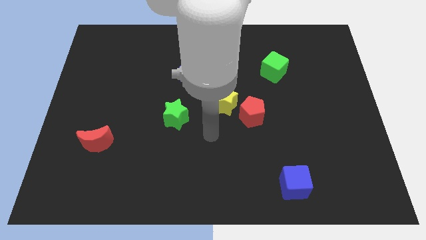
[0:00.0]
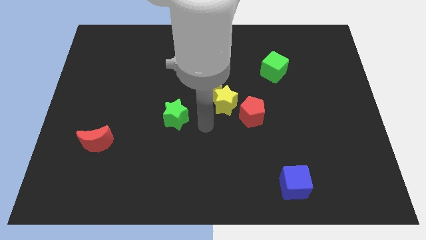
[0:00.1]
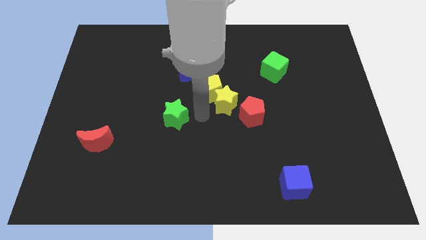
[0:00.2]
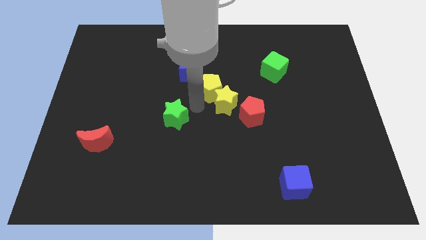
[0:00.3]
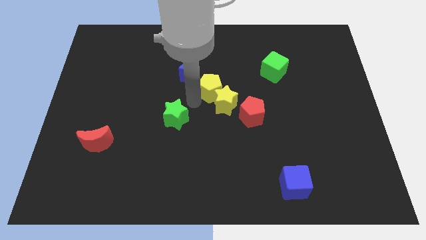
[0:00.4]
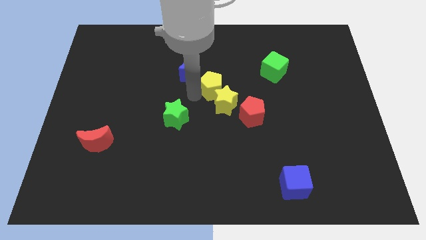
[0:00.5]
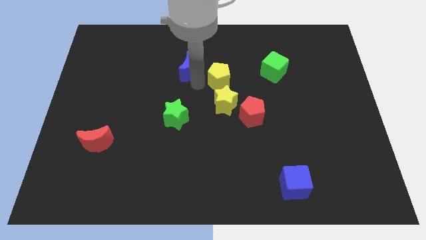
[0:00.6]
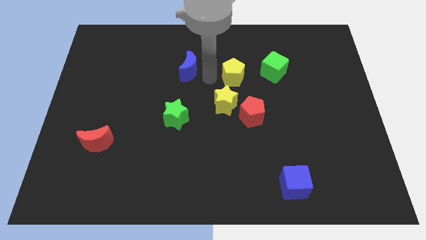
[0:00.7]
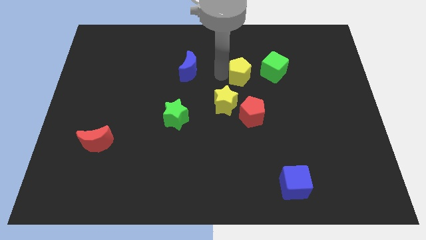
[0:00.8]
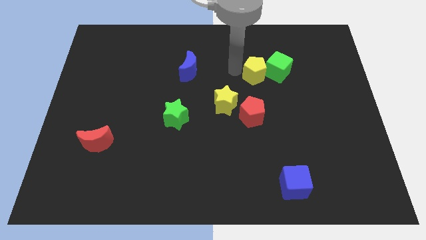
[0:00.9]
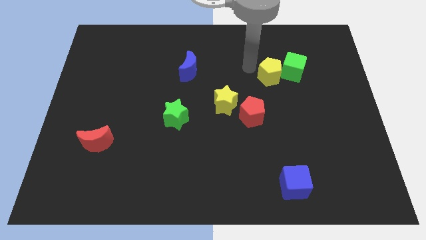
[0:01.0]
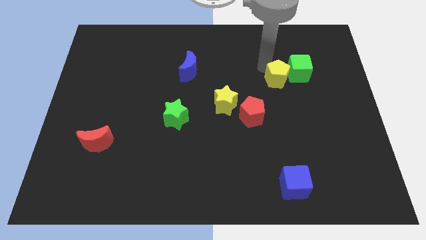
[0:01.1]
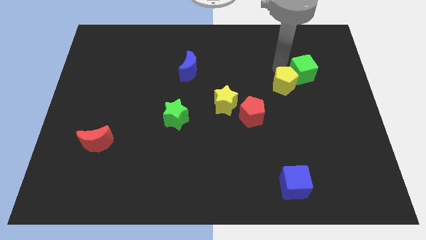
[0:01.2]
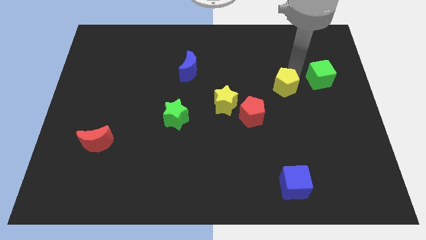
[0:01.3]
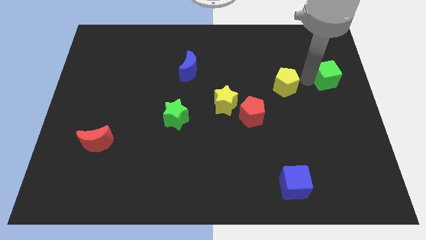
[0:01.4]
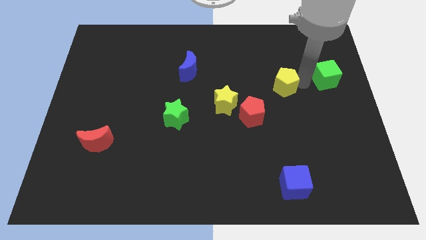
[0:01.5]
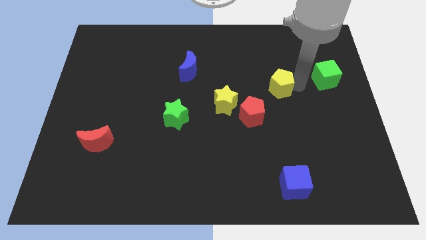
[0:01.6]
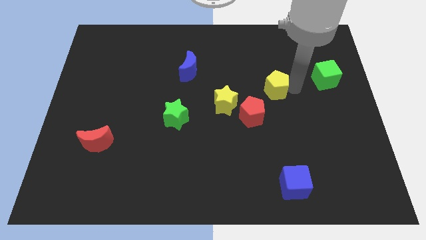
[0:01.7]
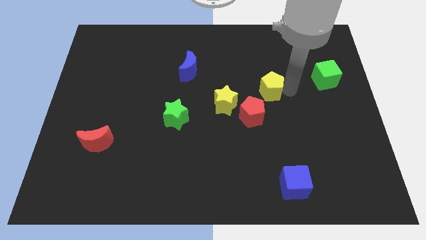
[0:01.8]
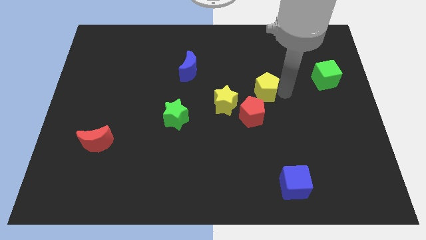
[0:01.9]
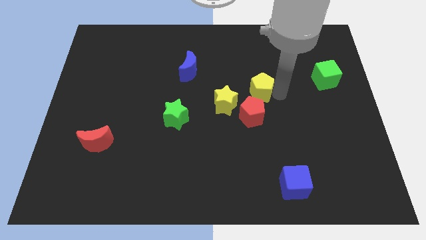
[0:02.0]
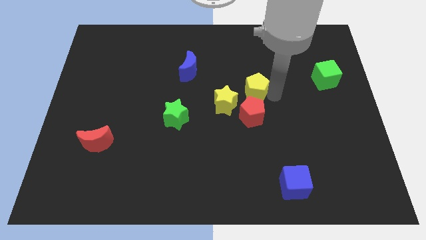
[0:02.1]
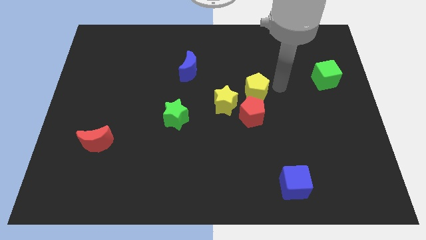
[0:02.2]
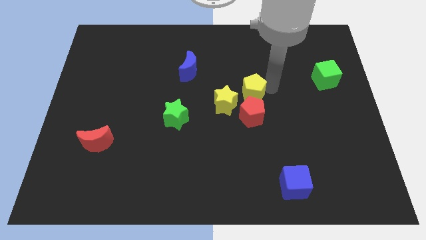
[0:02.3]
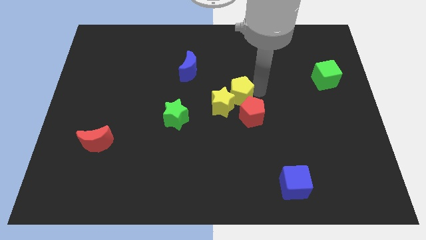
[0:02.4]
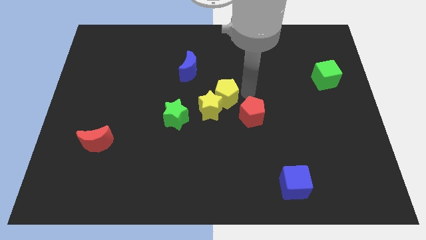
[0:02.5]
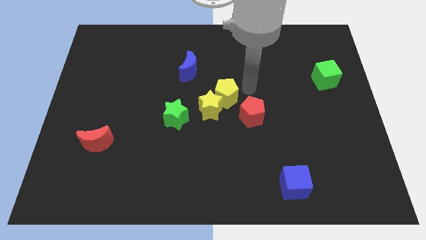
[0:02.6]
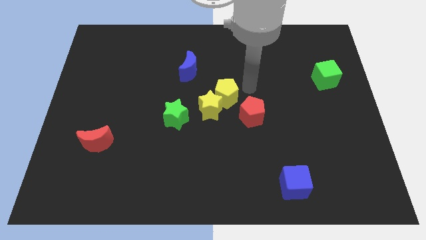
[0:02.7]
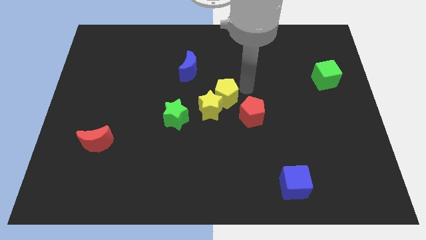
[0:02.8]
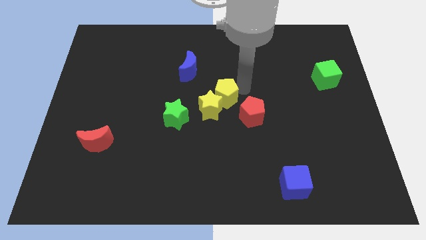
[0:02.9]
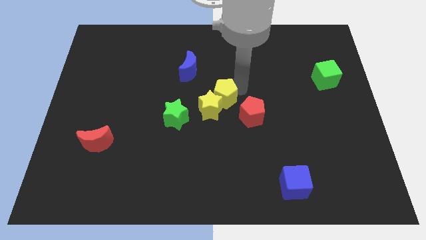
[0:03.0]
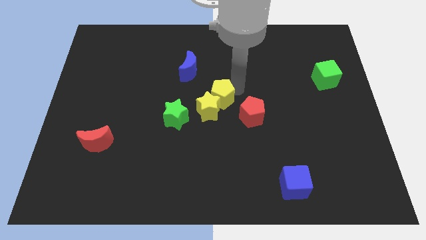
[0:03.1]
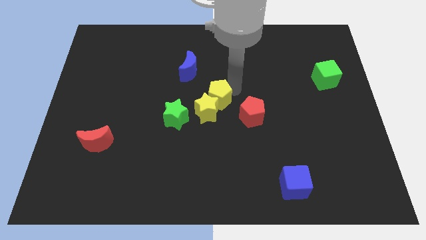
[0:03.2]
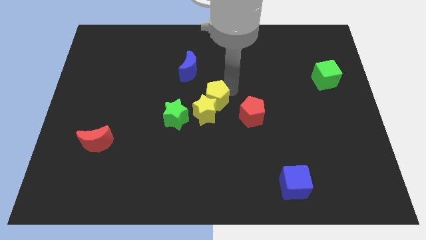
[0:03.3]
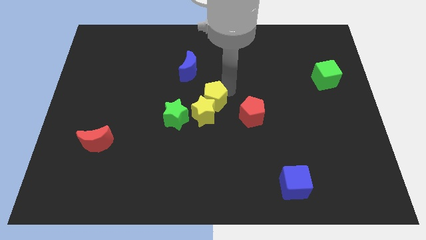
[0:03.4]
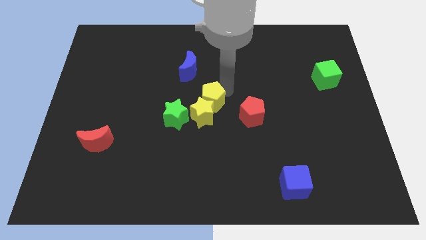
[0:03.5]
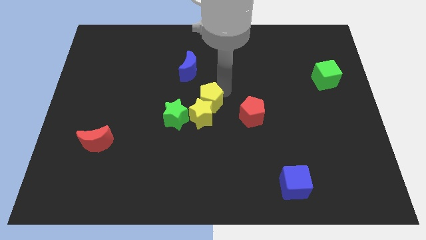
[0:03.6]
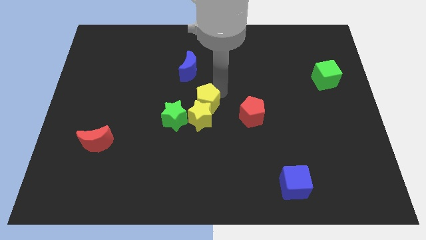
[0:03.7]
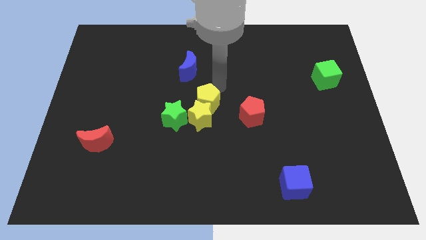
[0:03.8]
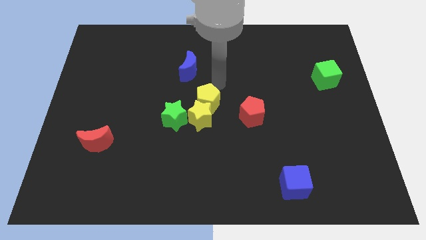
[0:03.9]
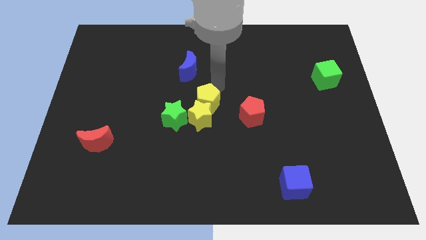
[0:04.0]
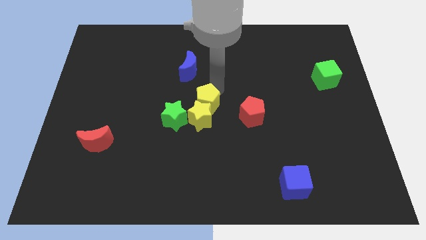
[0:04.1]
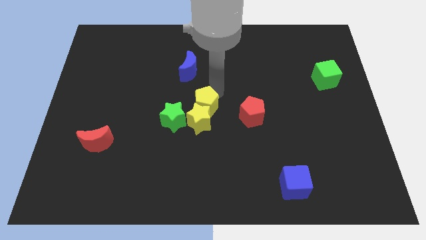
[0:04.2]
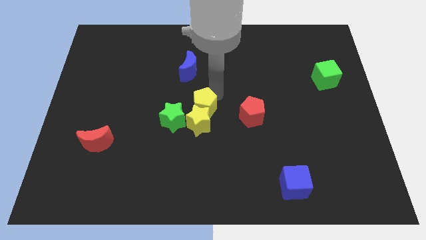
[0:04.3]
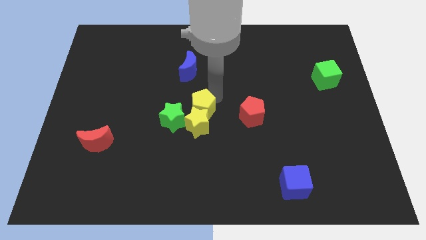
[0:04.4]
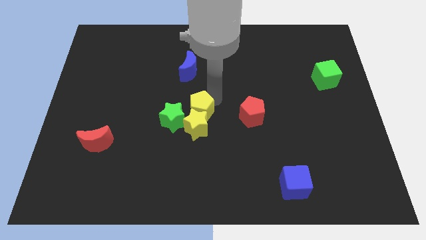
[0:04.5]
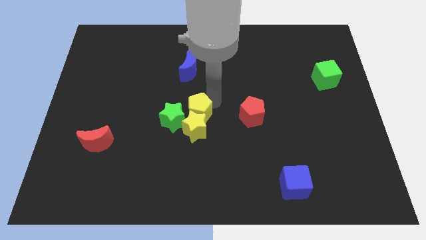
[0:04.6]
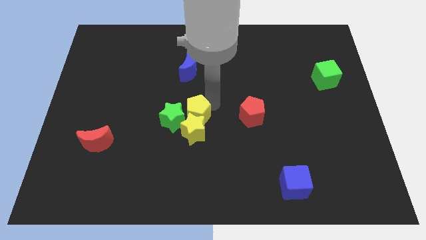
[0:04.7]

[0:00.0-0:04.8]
move the yellow pentagon slightly downwards and left

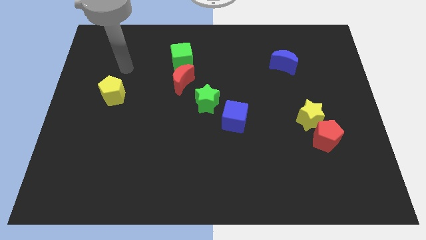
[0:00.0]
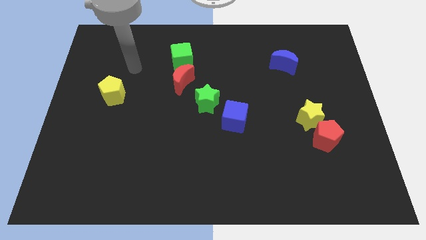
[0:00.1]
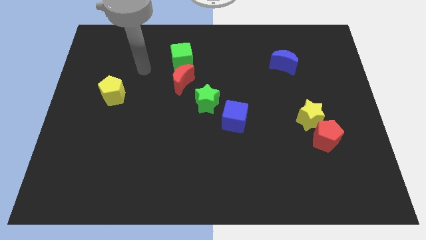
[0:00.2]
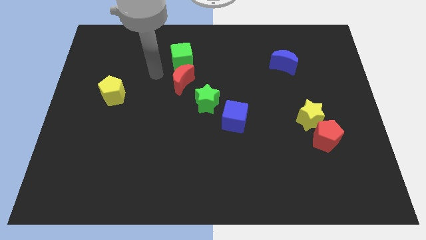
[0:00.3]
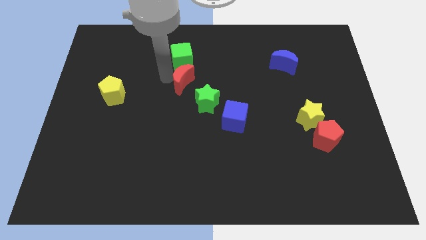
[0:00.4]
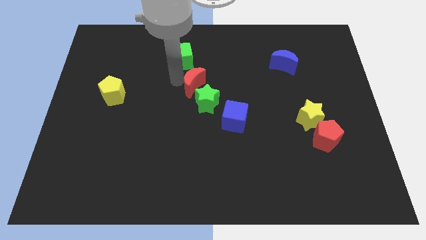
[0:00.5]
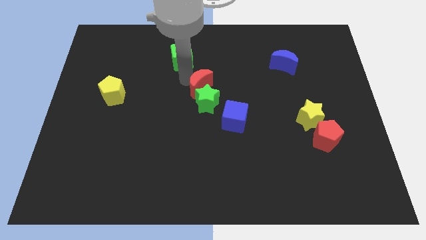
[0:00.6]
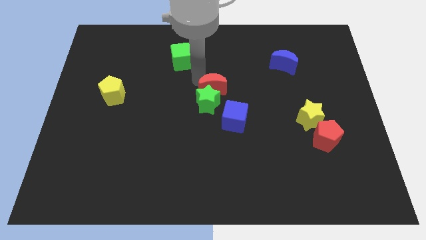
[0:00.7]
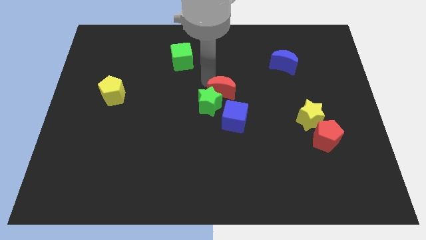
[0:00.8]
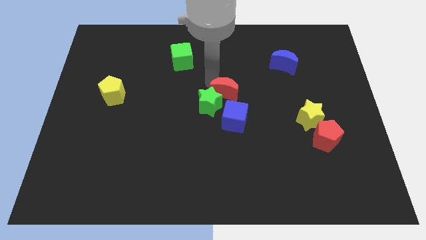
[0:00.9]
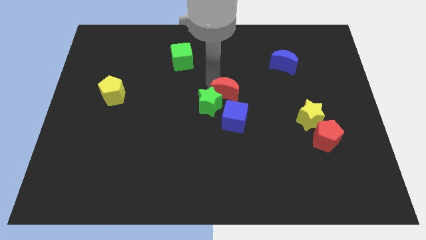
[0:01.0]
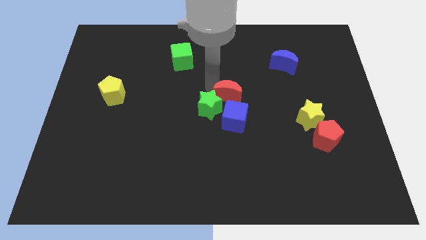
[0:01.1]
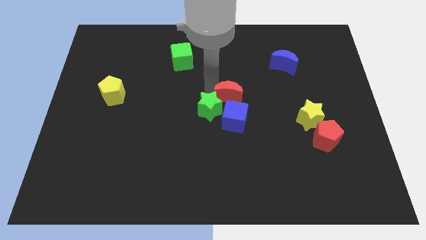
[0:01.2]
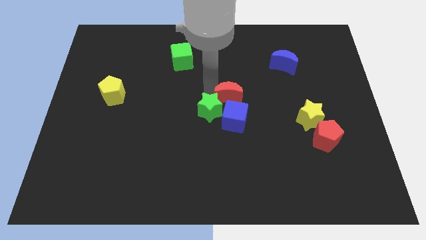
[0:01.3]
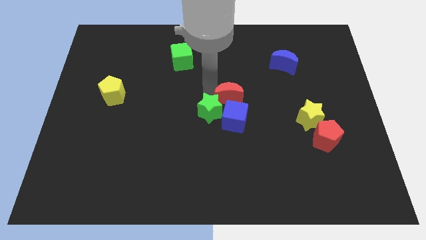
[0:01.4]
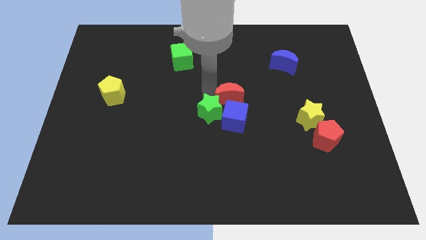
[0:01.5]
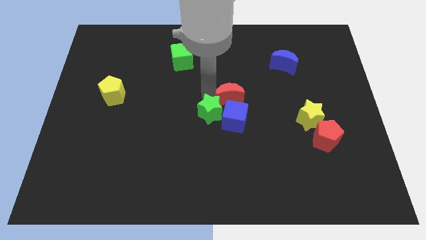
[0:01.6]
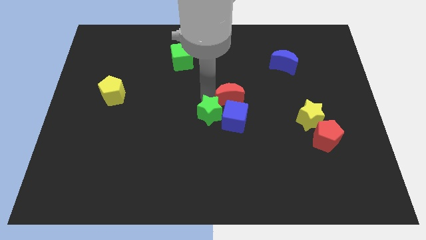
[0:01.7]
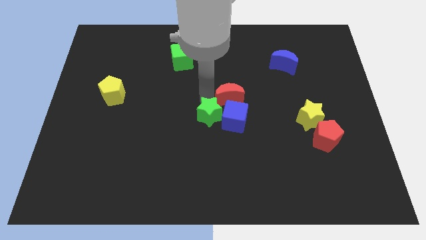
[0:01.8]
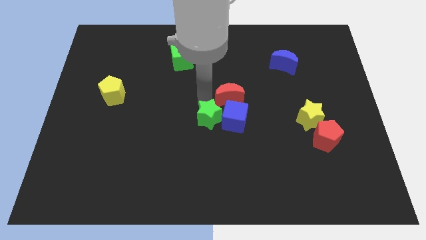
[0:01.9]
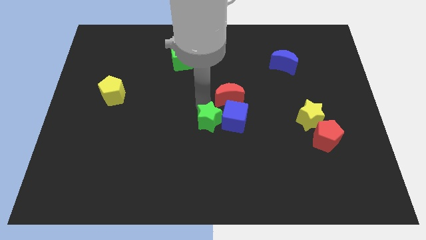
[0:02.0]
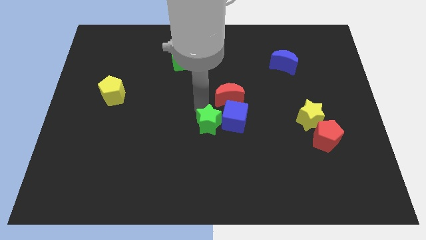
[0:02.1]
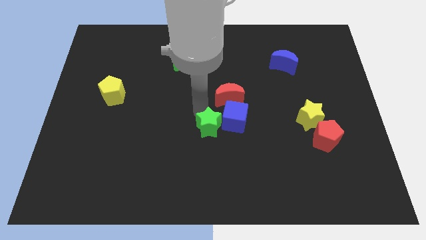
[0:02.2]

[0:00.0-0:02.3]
slide the green star a little downwards

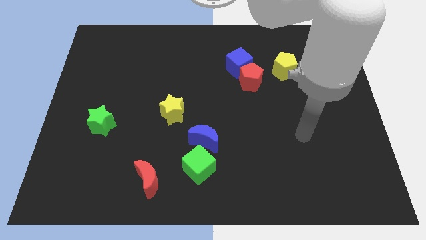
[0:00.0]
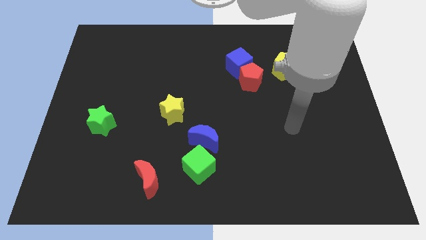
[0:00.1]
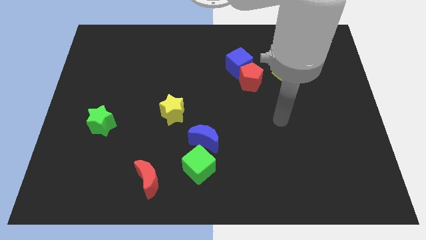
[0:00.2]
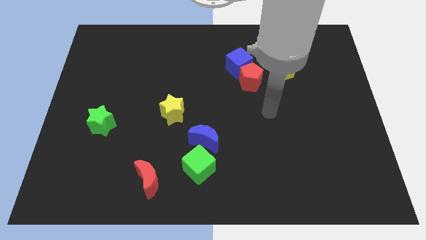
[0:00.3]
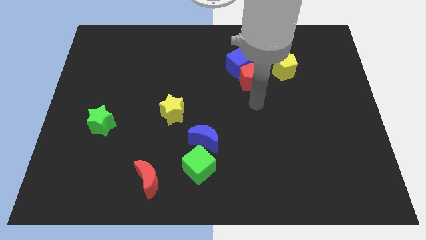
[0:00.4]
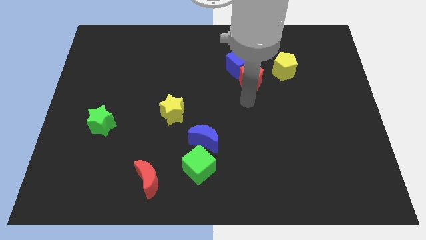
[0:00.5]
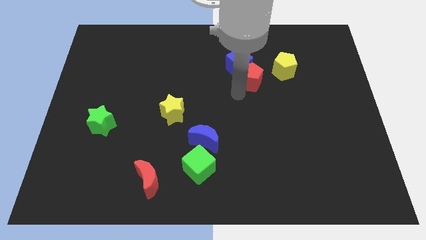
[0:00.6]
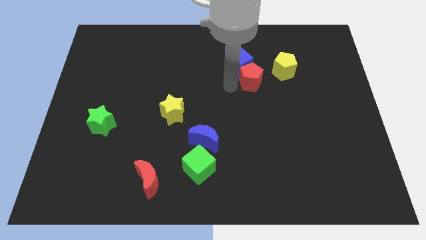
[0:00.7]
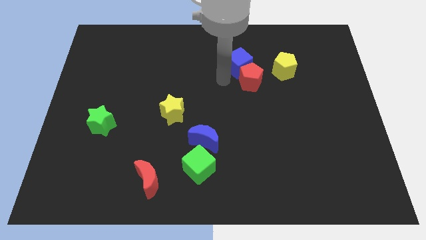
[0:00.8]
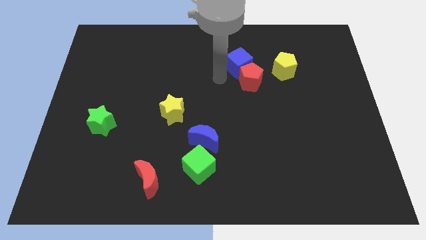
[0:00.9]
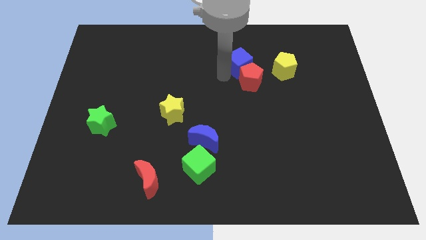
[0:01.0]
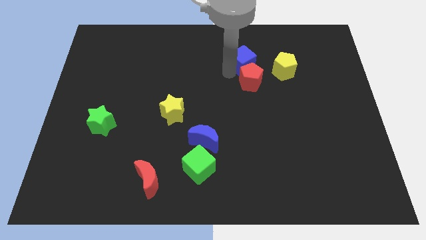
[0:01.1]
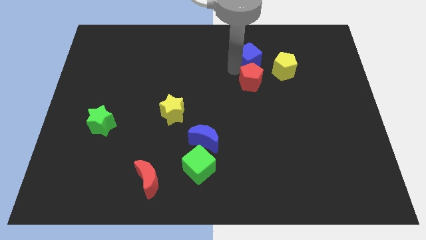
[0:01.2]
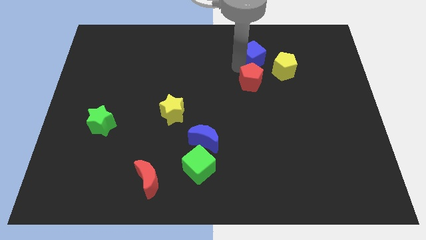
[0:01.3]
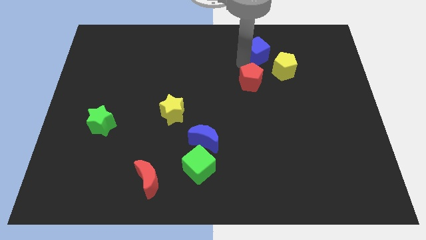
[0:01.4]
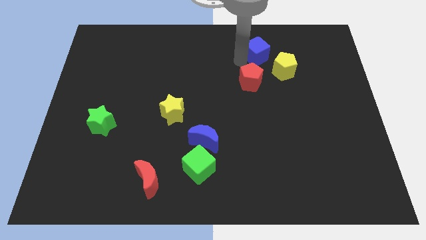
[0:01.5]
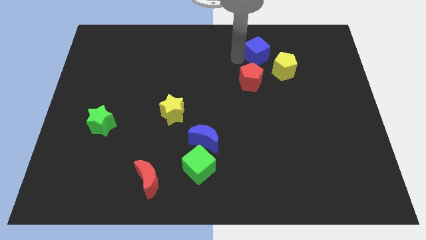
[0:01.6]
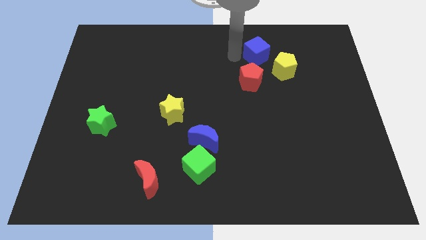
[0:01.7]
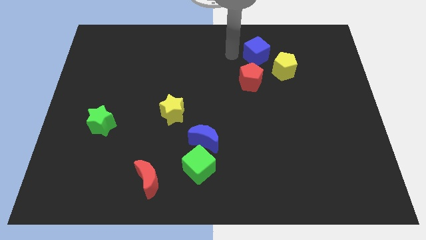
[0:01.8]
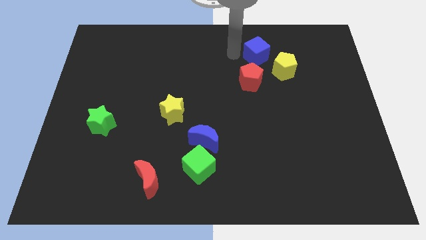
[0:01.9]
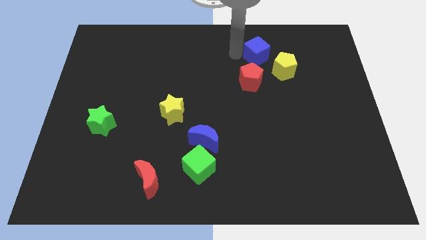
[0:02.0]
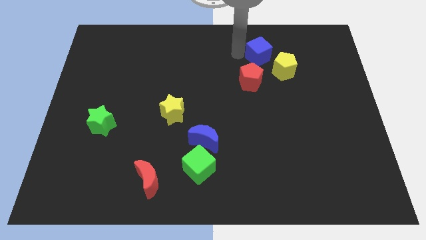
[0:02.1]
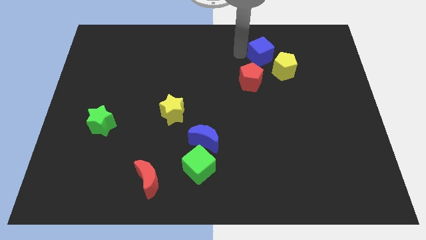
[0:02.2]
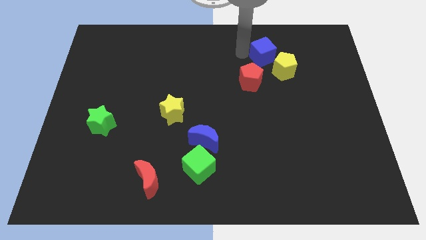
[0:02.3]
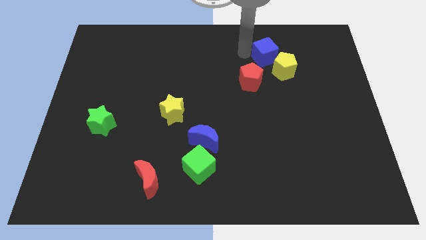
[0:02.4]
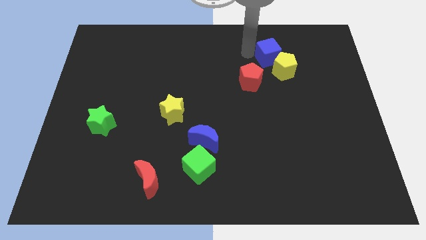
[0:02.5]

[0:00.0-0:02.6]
push the blue cube a little right
